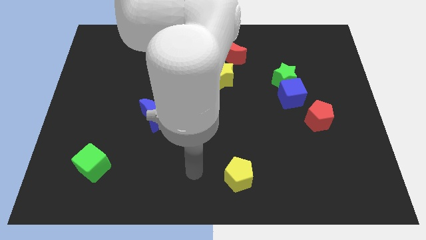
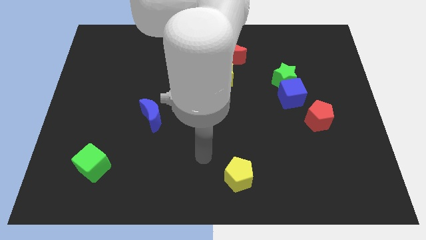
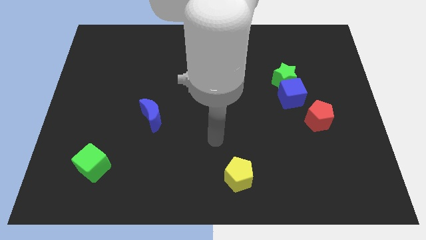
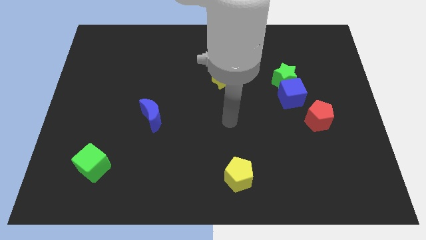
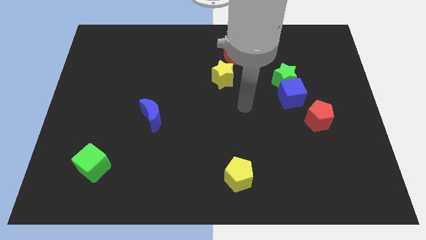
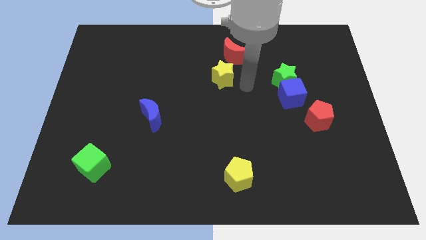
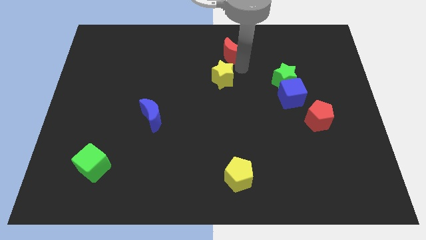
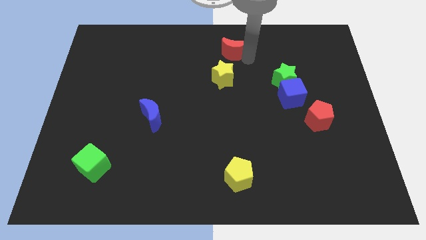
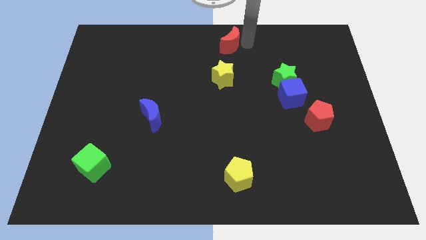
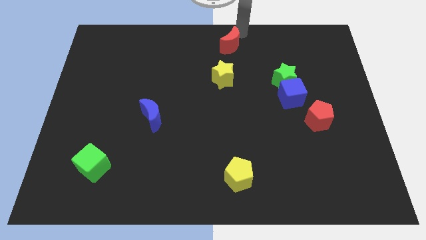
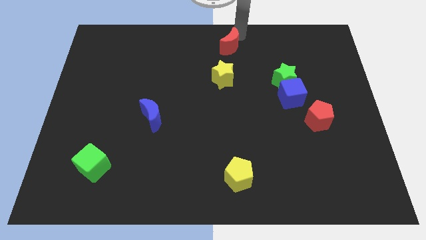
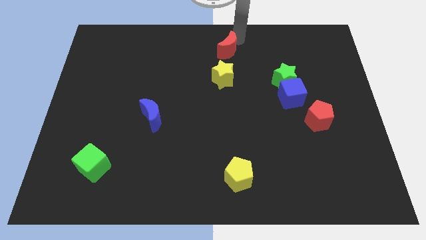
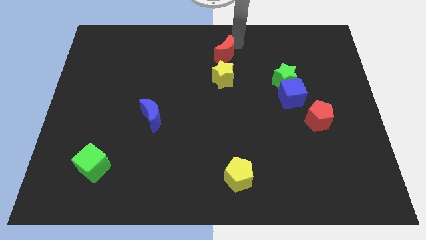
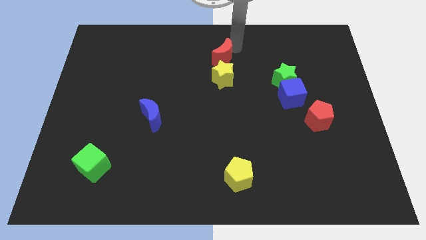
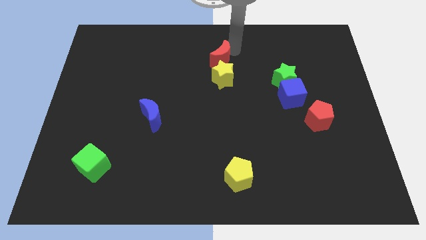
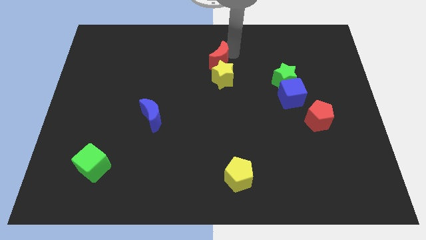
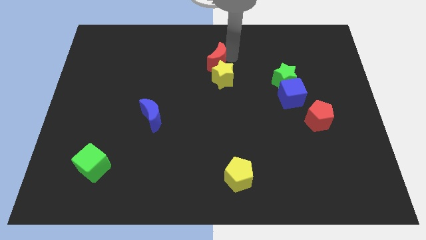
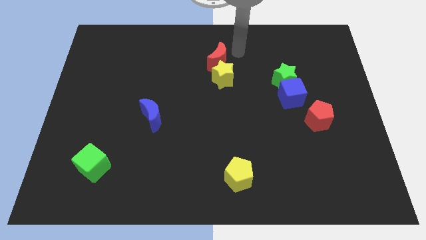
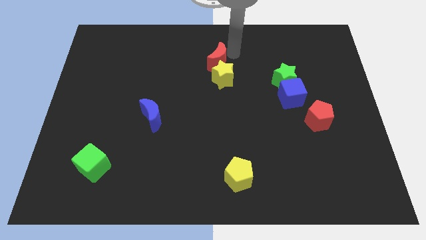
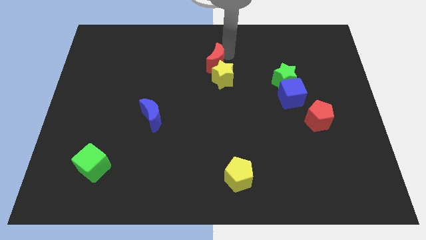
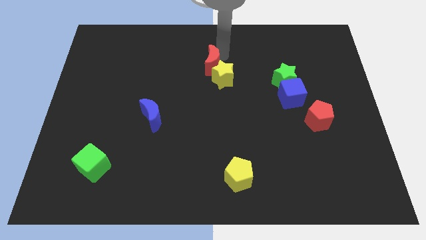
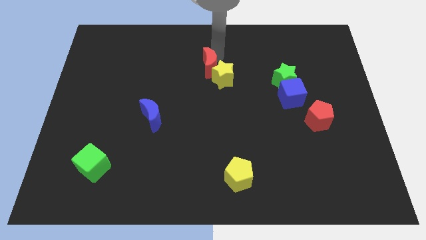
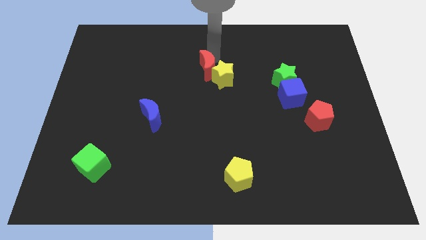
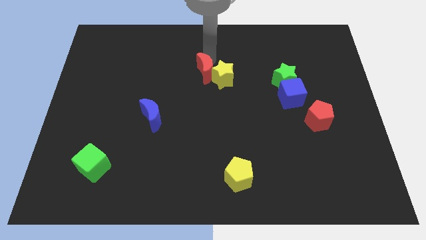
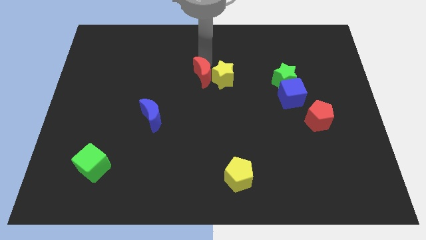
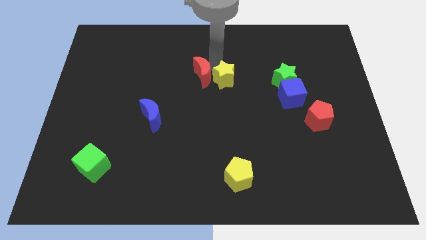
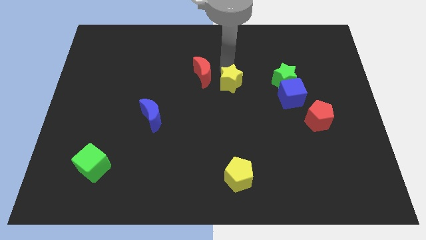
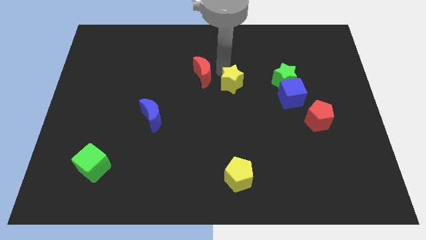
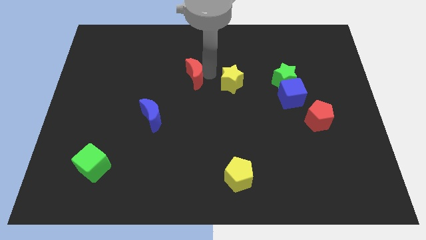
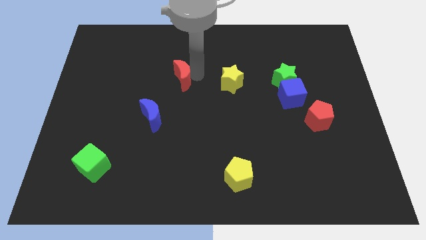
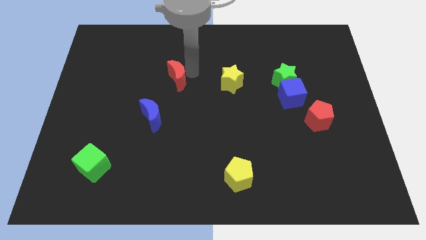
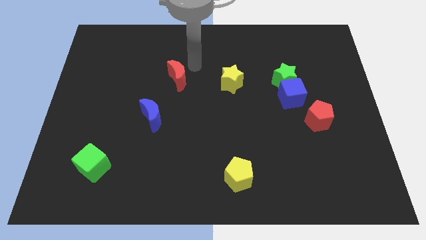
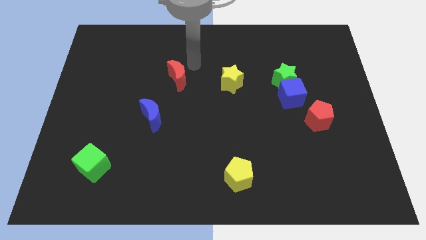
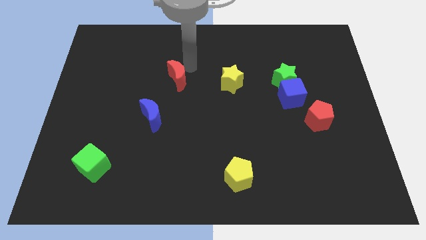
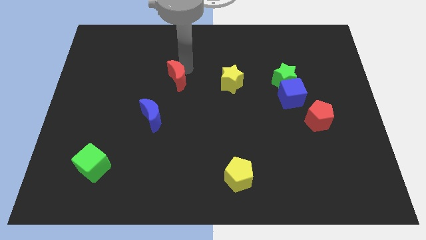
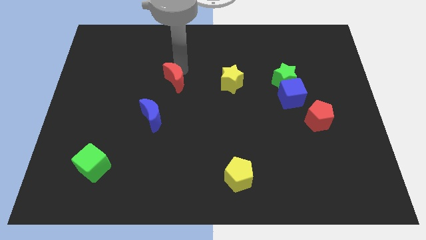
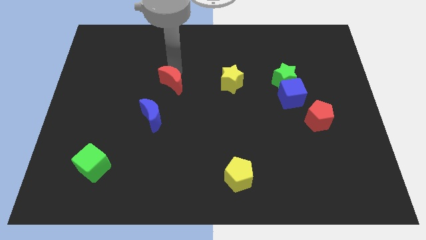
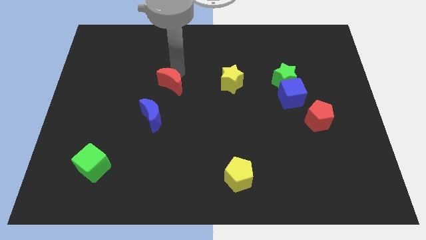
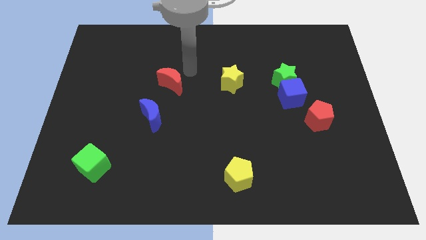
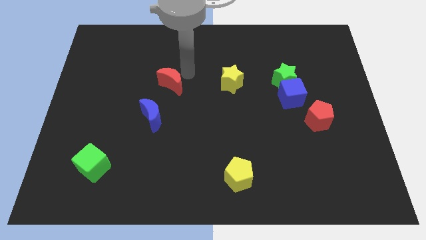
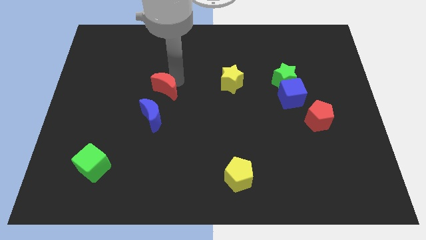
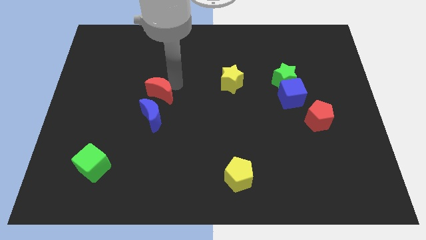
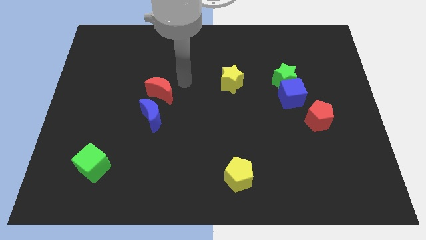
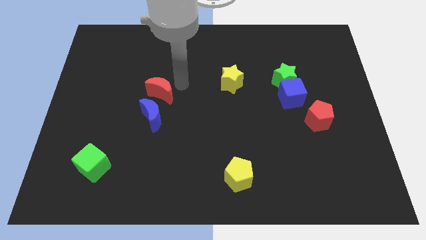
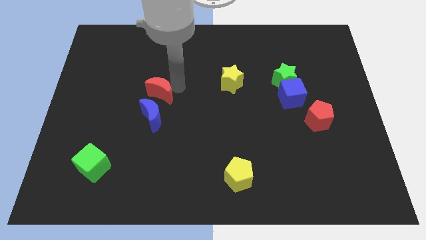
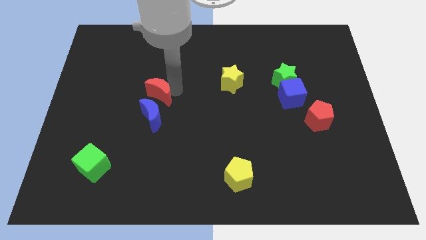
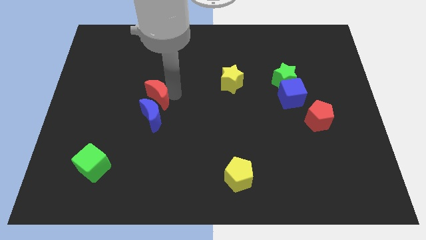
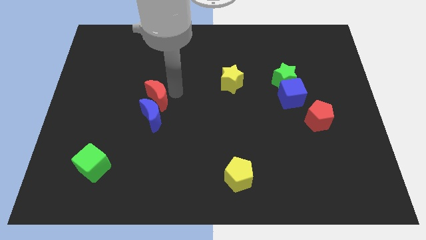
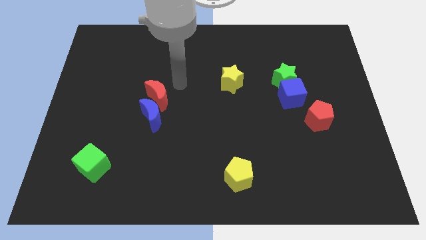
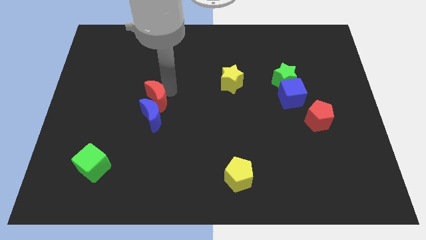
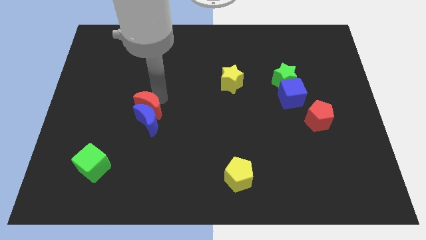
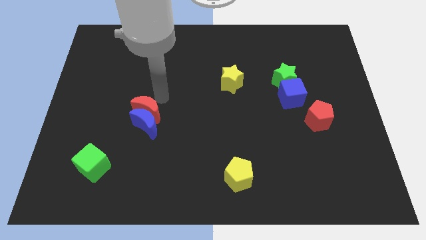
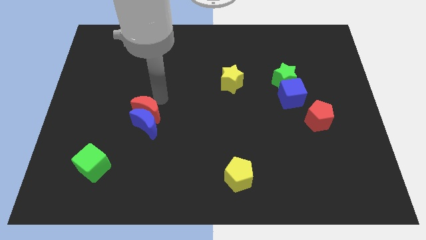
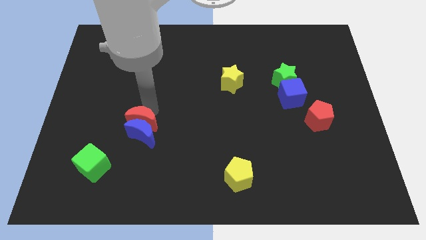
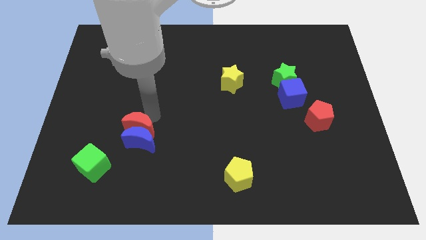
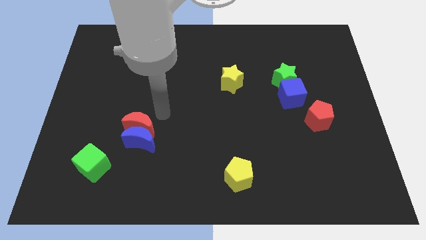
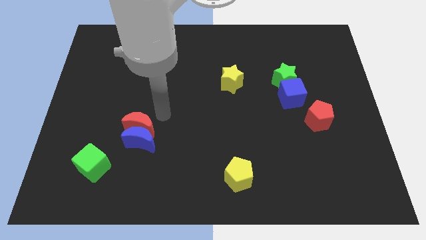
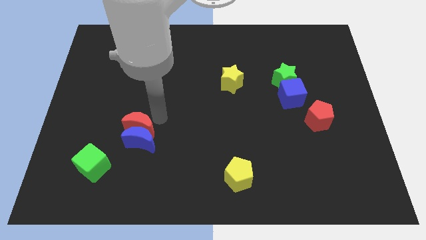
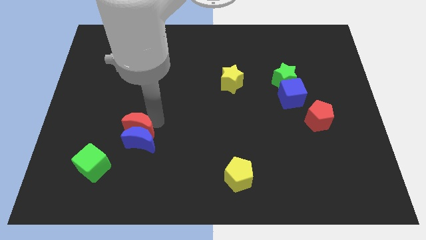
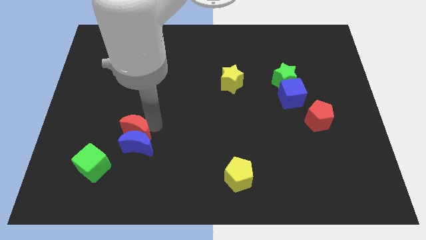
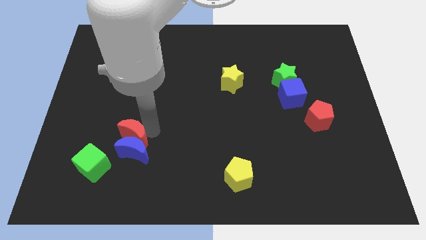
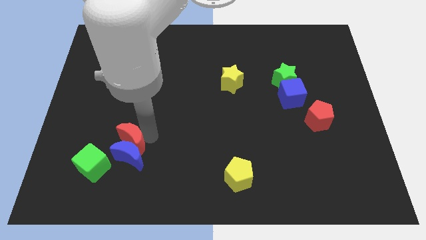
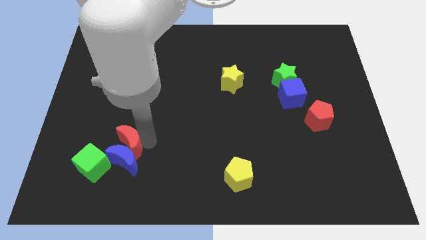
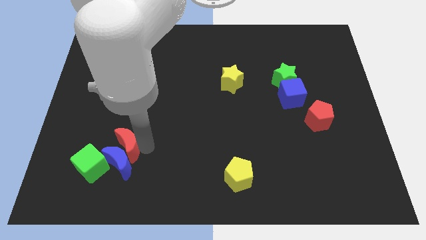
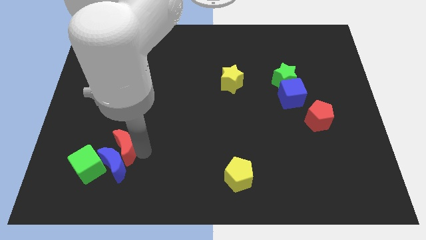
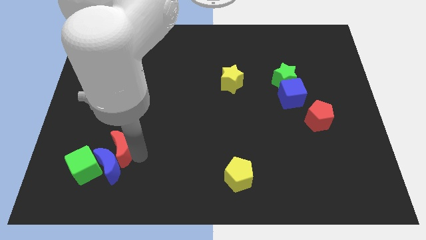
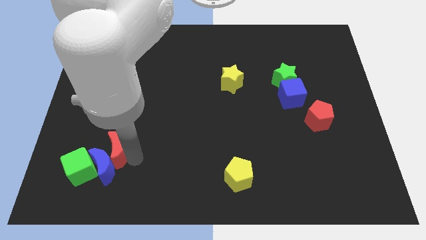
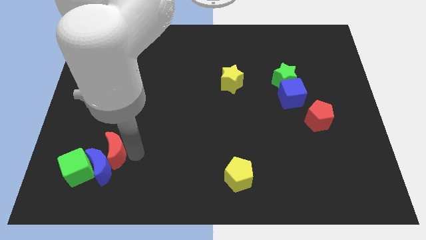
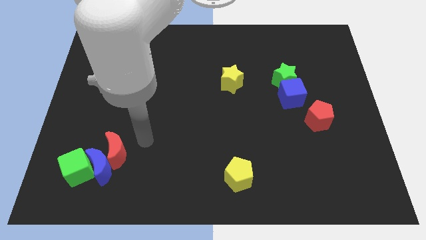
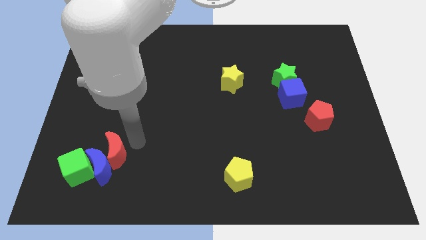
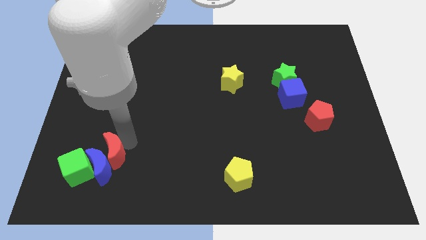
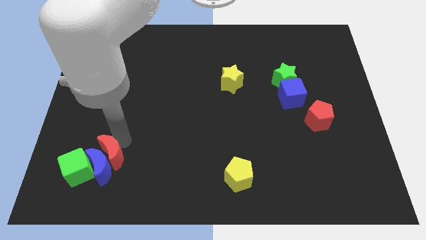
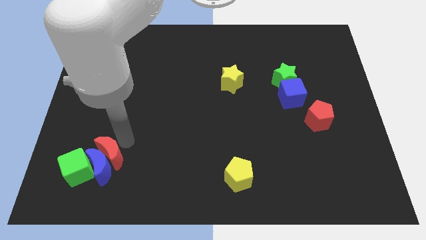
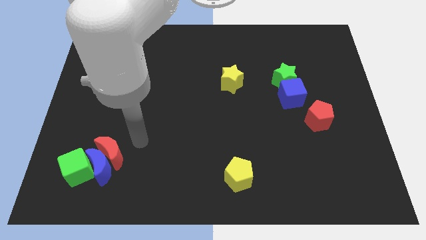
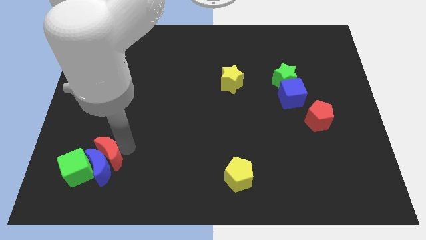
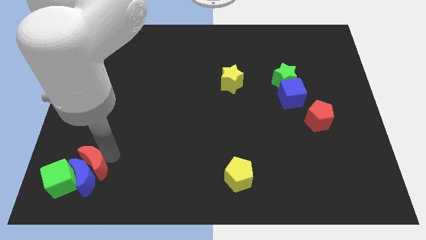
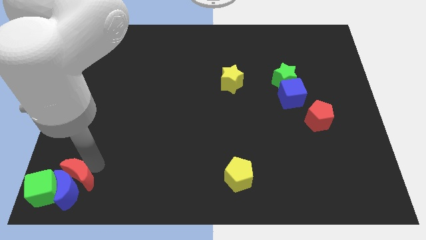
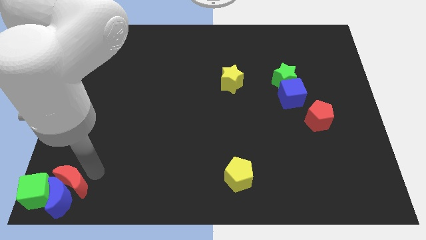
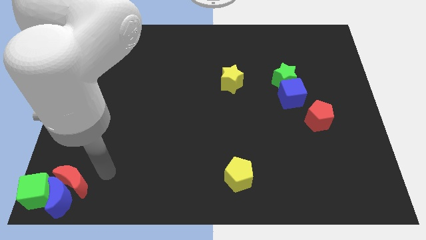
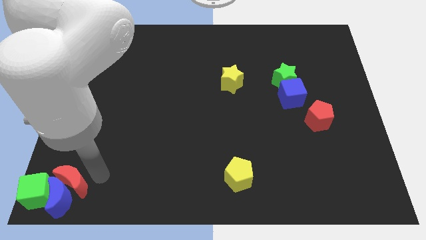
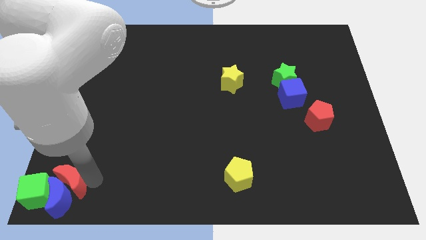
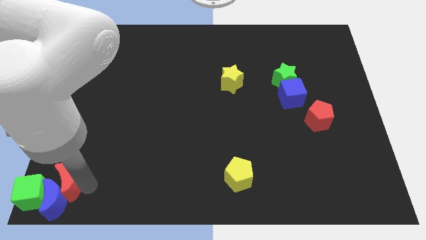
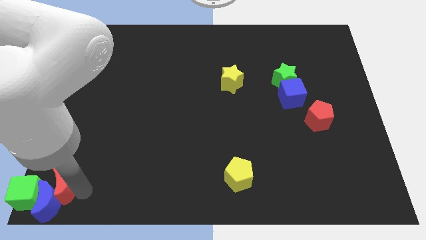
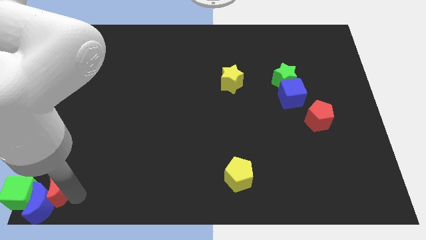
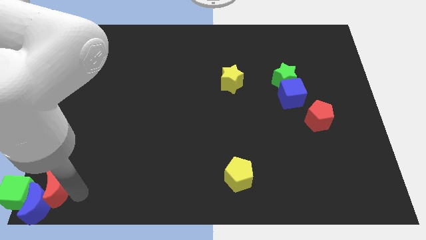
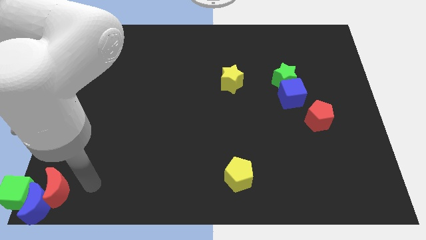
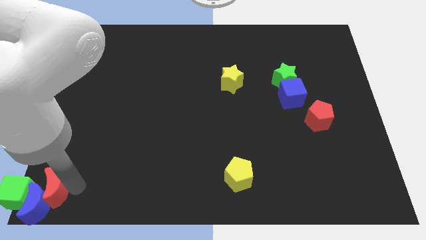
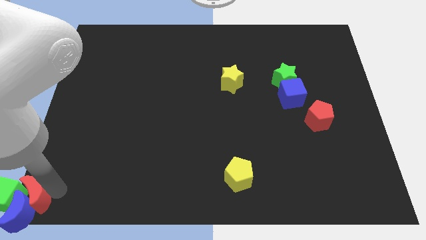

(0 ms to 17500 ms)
slide the red moon next to the green cube
